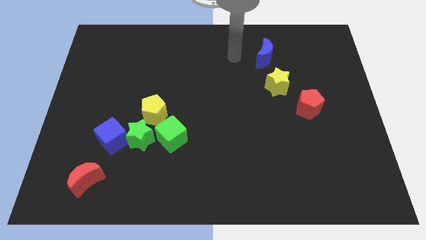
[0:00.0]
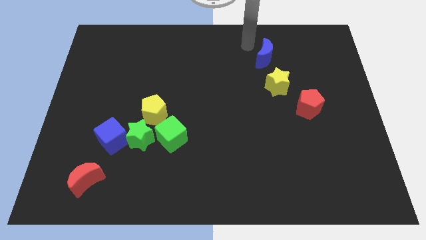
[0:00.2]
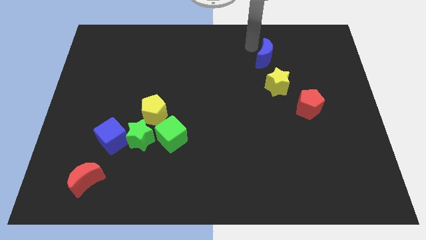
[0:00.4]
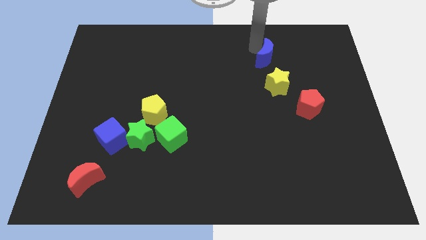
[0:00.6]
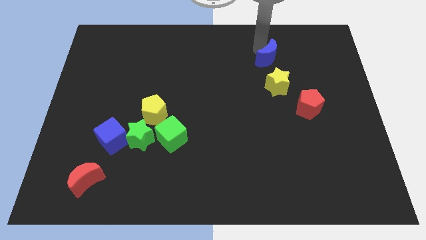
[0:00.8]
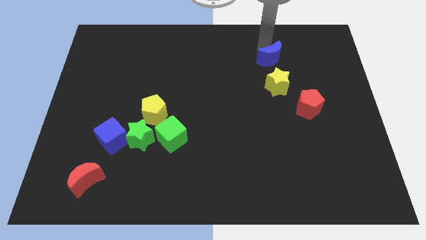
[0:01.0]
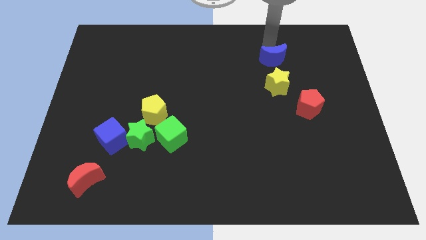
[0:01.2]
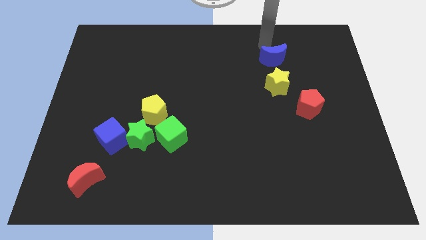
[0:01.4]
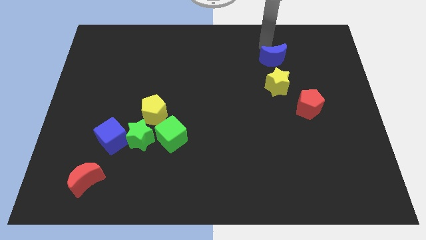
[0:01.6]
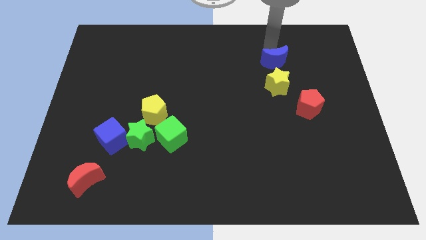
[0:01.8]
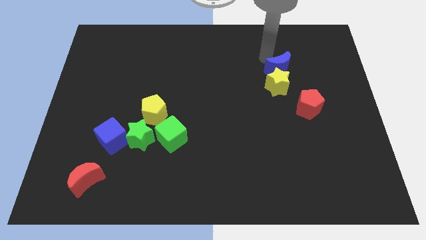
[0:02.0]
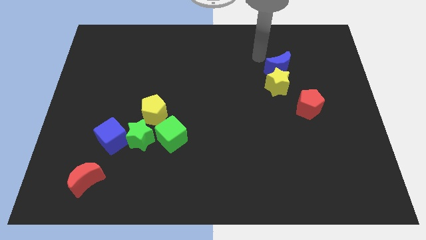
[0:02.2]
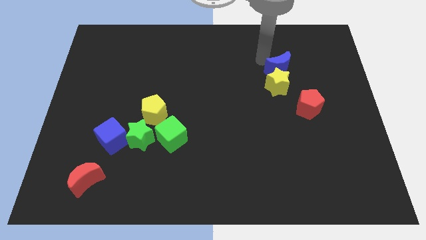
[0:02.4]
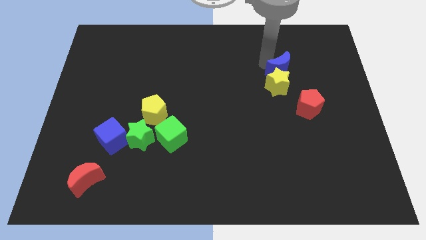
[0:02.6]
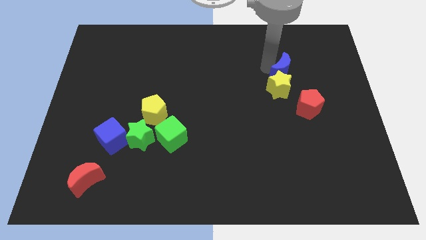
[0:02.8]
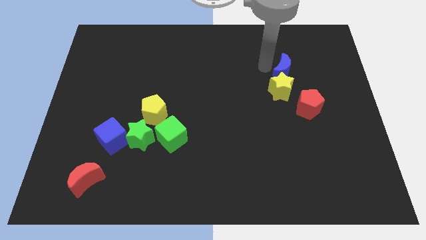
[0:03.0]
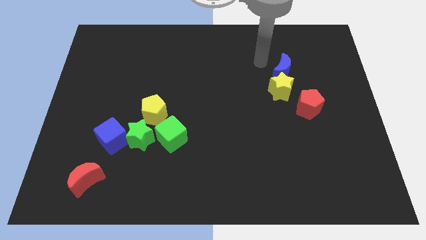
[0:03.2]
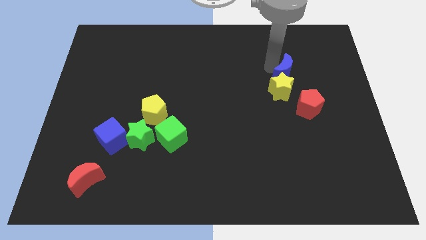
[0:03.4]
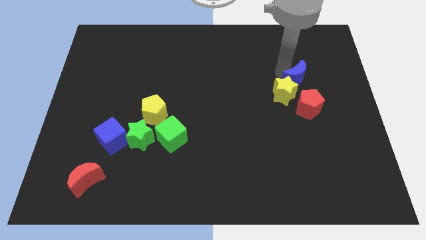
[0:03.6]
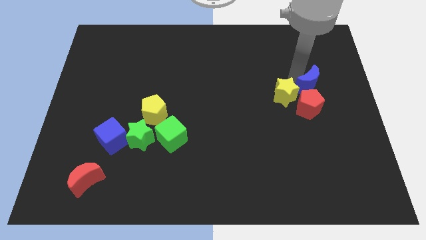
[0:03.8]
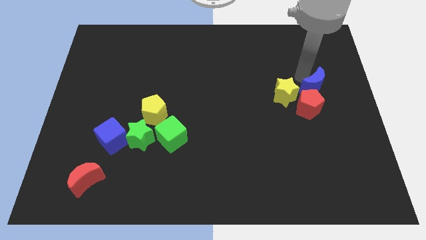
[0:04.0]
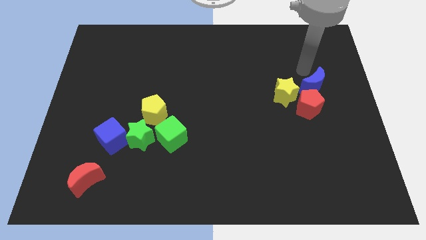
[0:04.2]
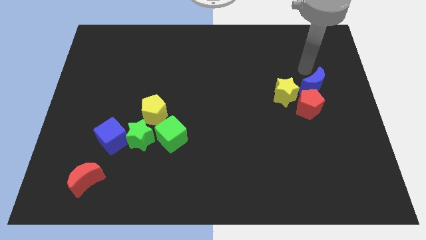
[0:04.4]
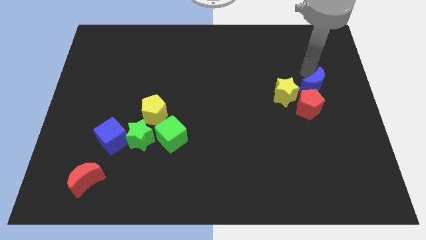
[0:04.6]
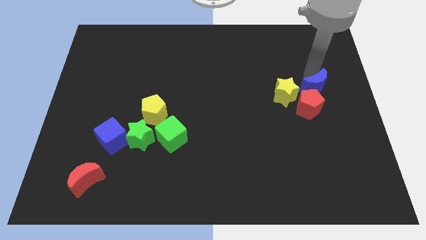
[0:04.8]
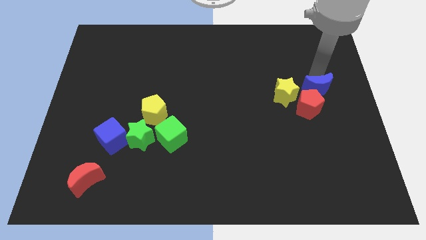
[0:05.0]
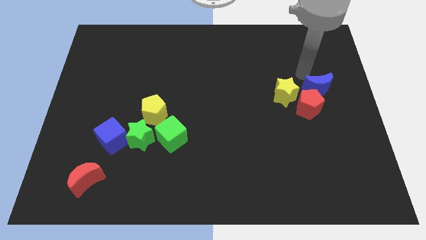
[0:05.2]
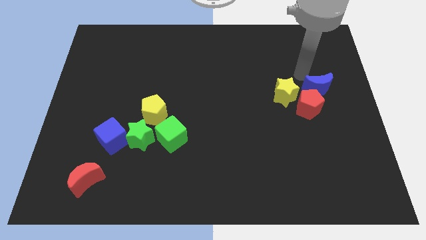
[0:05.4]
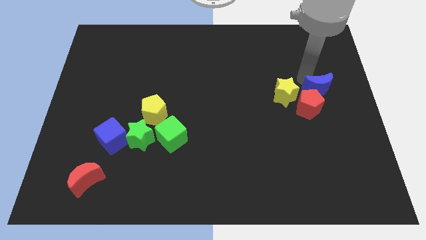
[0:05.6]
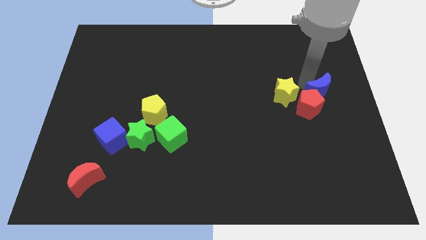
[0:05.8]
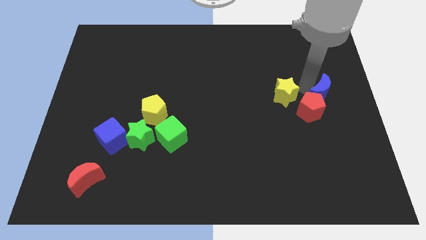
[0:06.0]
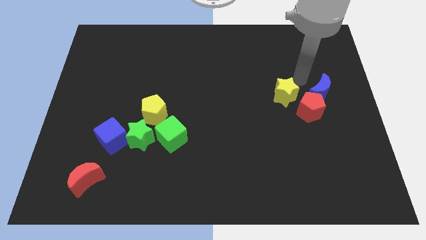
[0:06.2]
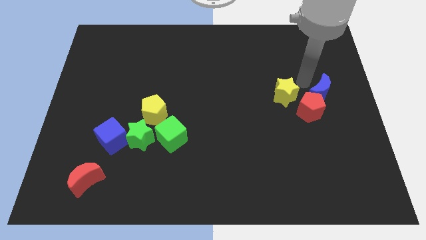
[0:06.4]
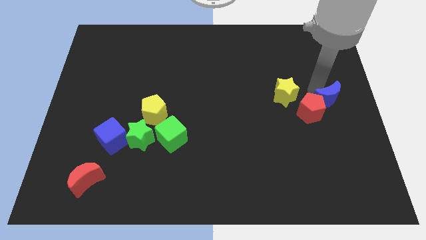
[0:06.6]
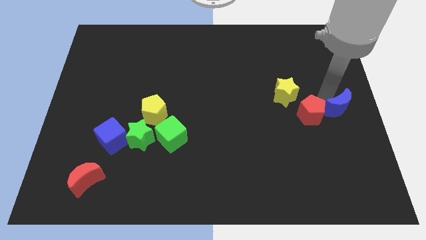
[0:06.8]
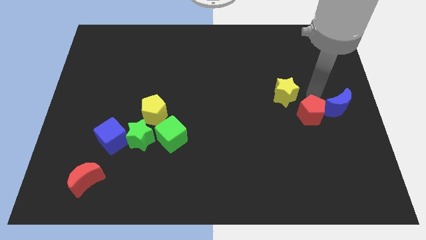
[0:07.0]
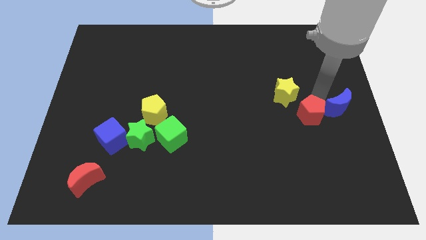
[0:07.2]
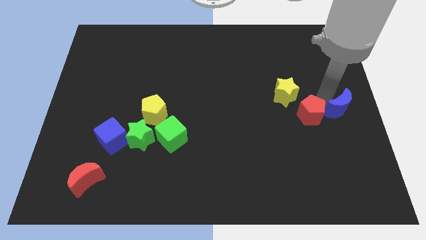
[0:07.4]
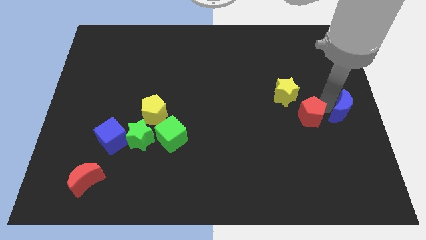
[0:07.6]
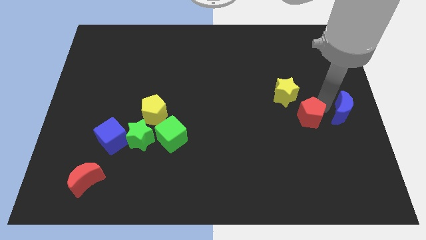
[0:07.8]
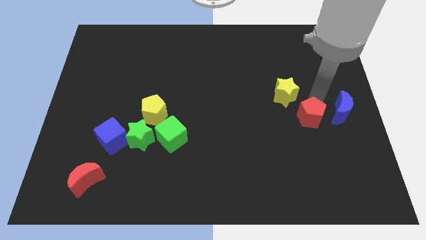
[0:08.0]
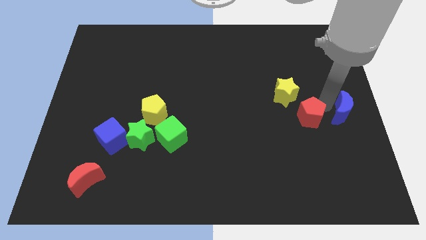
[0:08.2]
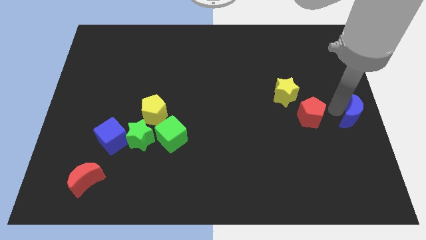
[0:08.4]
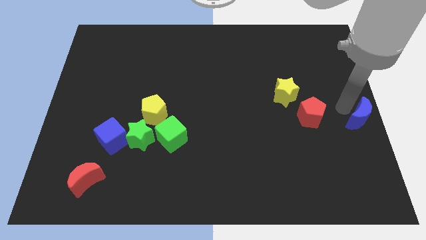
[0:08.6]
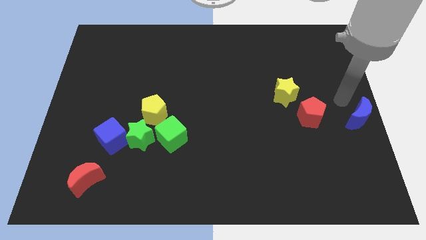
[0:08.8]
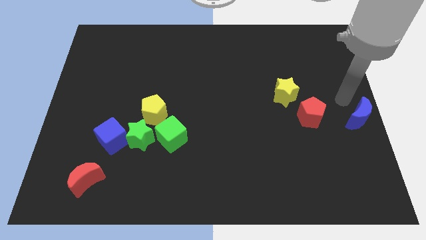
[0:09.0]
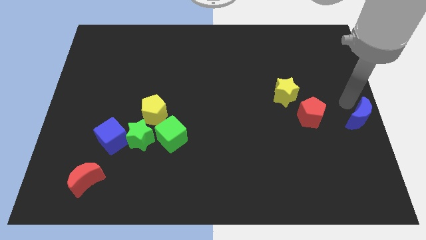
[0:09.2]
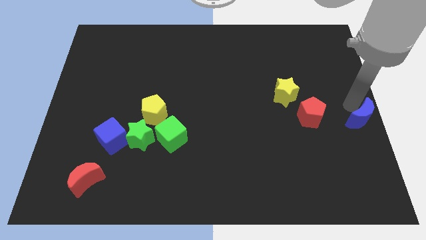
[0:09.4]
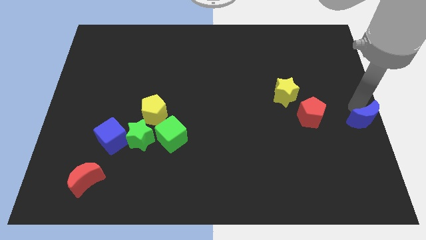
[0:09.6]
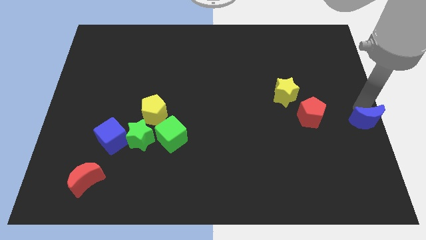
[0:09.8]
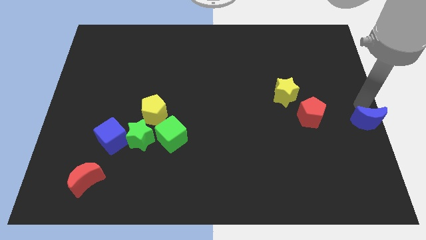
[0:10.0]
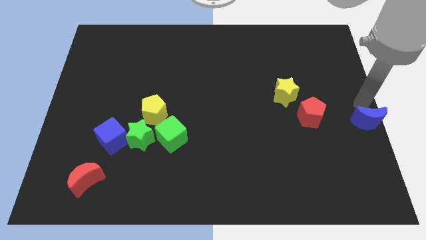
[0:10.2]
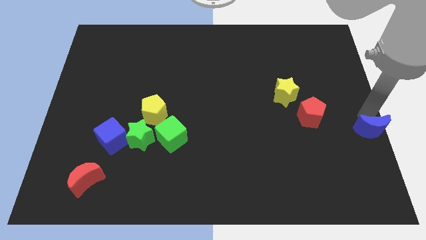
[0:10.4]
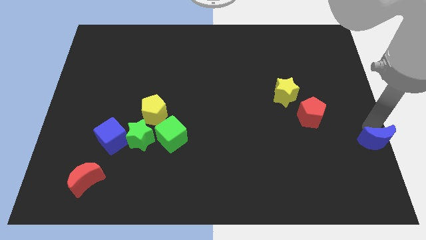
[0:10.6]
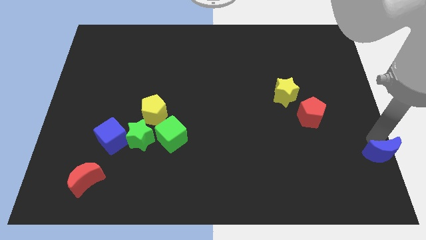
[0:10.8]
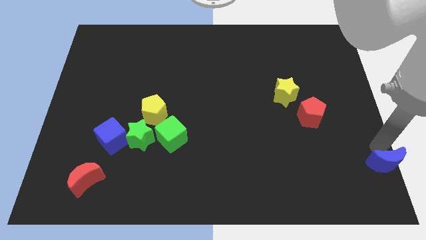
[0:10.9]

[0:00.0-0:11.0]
slide the blue moon to the bottom right
